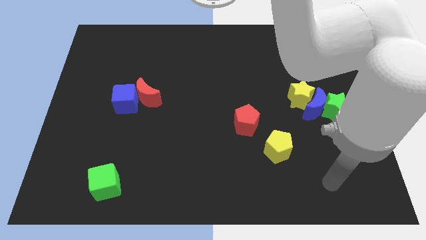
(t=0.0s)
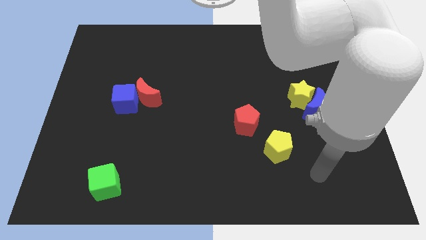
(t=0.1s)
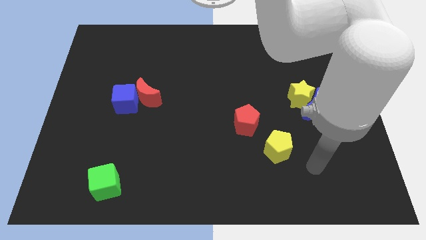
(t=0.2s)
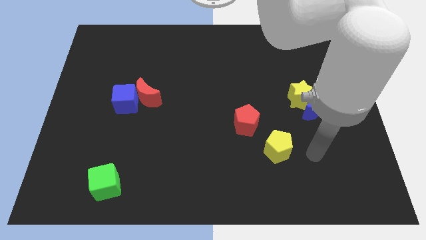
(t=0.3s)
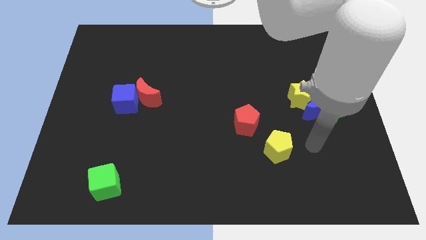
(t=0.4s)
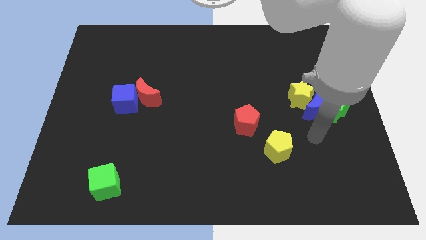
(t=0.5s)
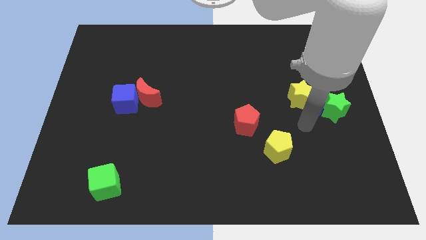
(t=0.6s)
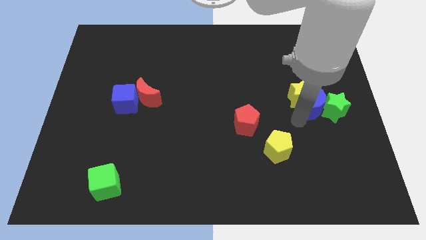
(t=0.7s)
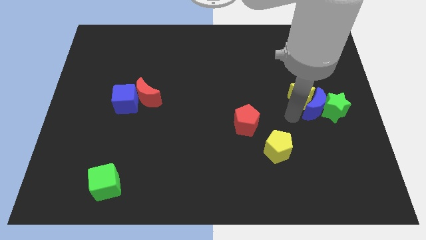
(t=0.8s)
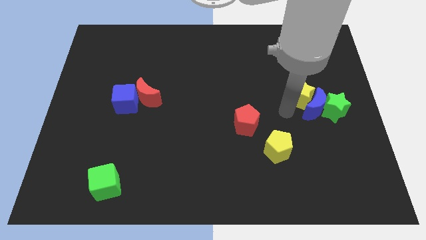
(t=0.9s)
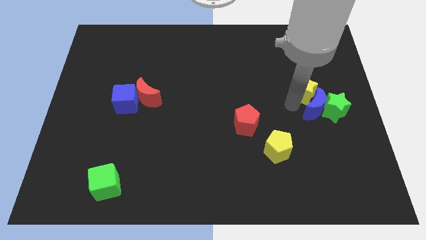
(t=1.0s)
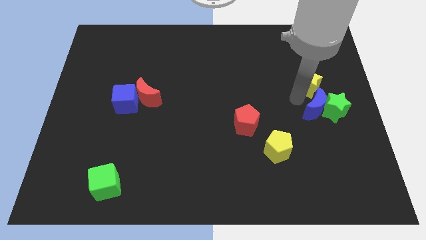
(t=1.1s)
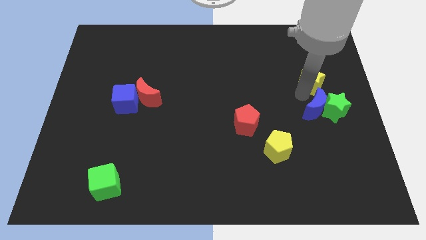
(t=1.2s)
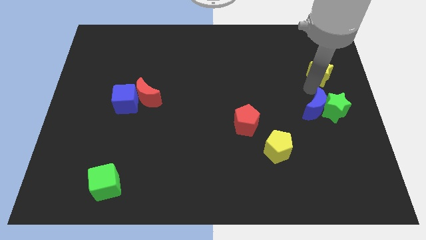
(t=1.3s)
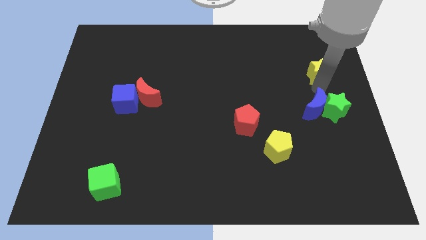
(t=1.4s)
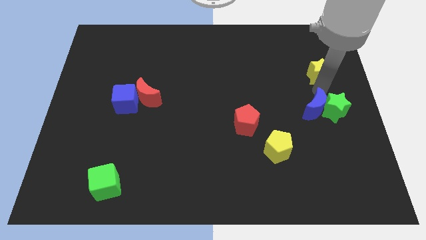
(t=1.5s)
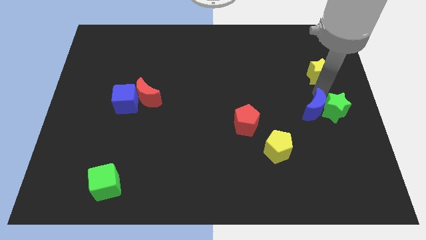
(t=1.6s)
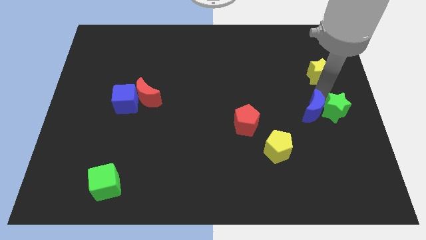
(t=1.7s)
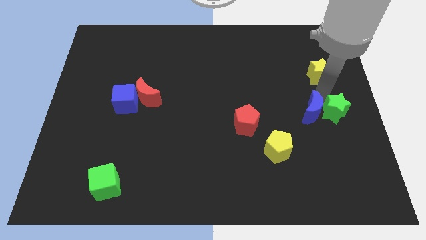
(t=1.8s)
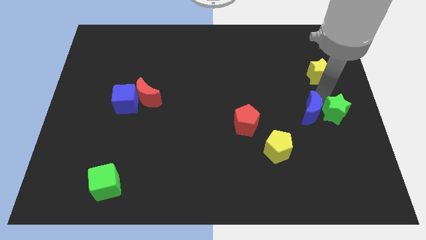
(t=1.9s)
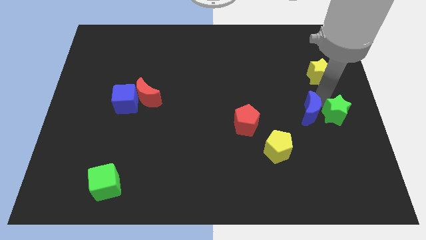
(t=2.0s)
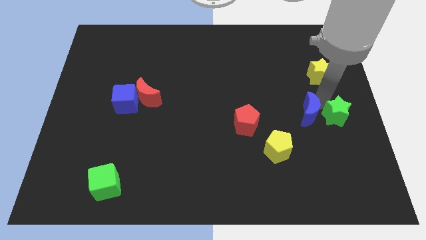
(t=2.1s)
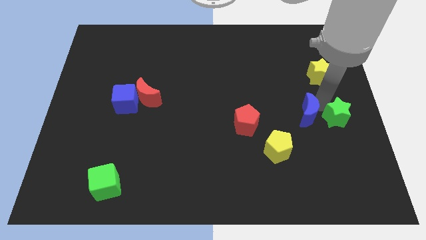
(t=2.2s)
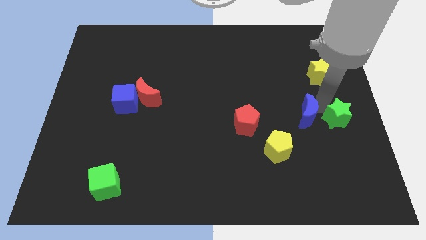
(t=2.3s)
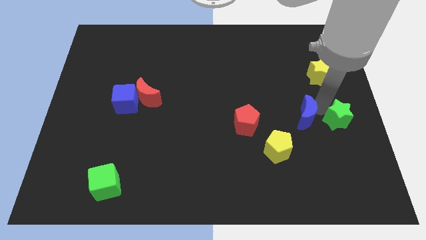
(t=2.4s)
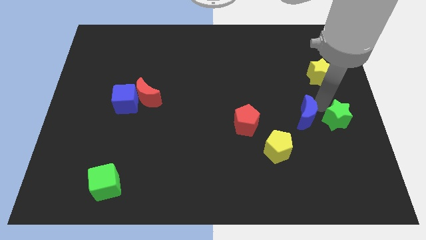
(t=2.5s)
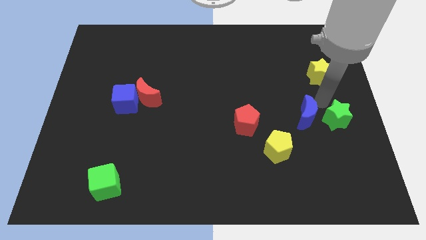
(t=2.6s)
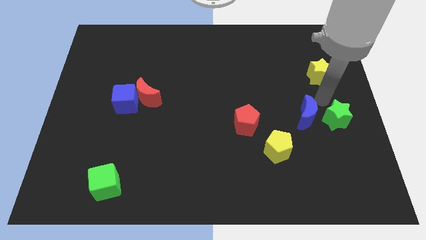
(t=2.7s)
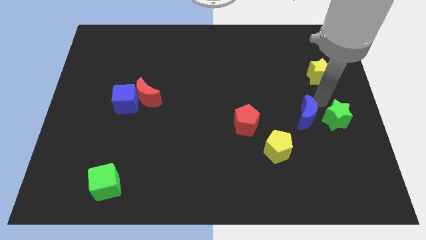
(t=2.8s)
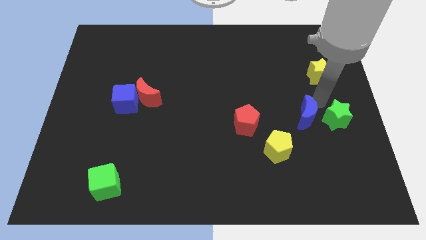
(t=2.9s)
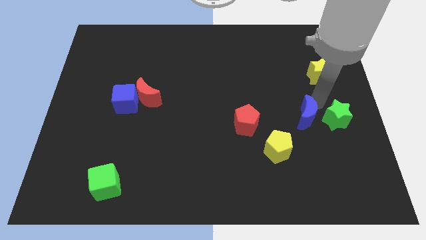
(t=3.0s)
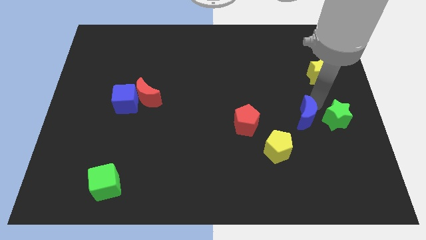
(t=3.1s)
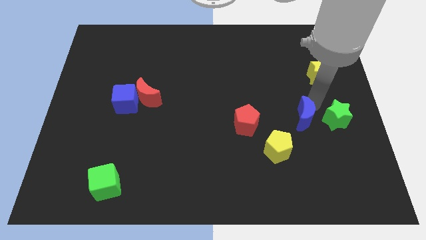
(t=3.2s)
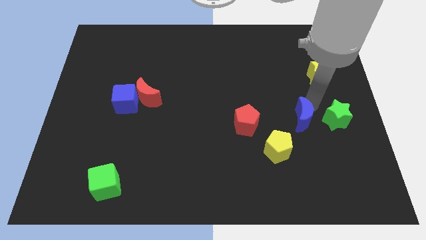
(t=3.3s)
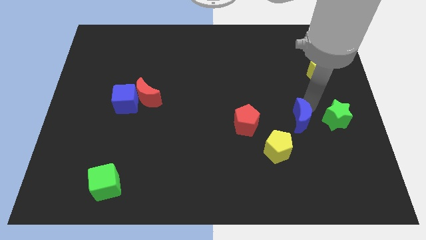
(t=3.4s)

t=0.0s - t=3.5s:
pull the blue moon apart from the yellow star and green star

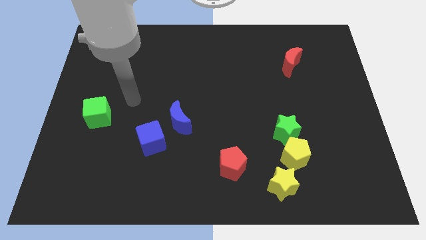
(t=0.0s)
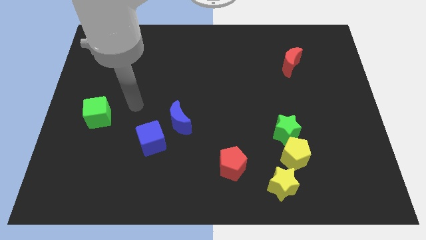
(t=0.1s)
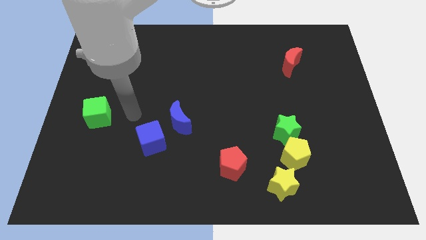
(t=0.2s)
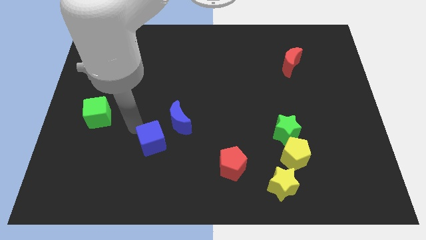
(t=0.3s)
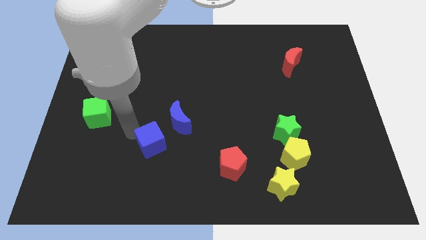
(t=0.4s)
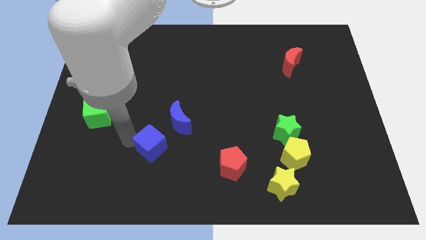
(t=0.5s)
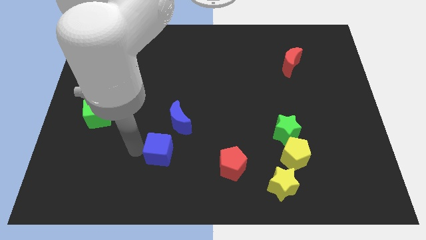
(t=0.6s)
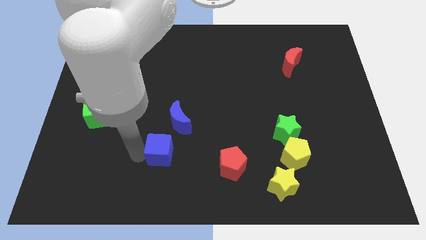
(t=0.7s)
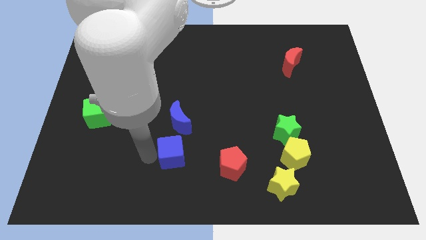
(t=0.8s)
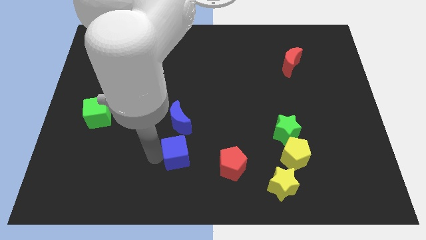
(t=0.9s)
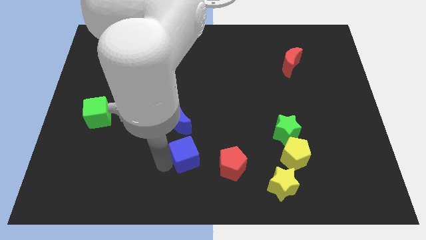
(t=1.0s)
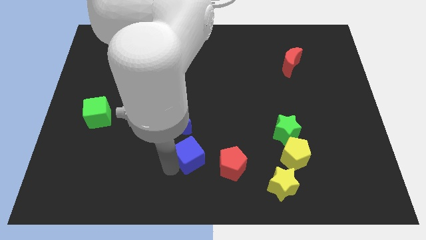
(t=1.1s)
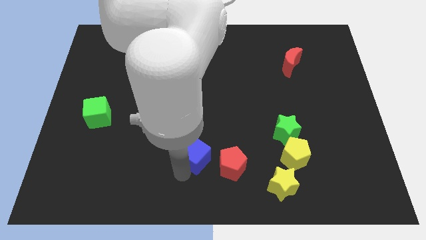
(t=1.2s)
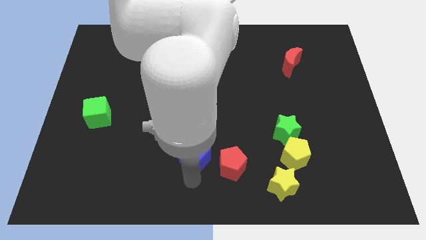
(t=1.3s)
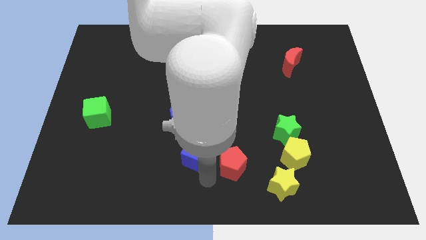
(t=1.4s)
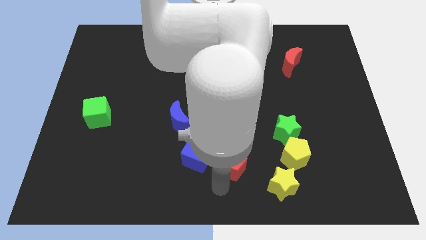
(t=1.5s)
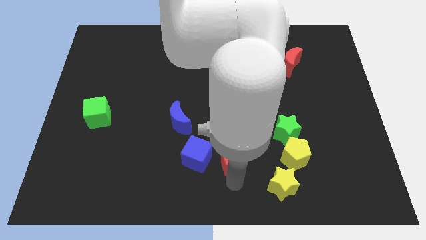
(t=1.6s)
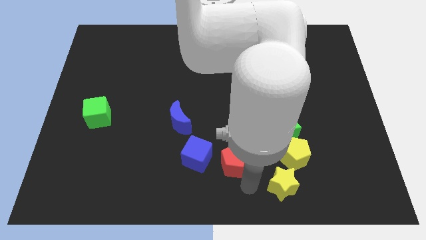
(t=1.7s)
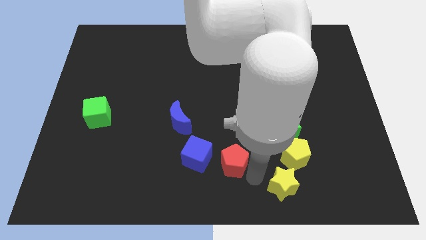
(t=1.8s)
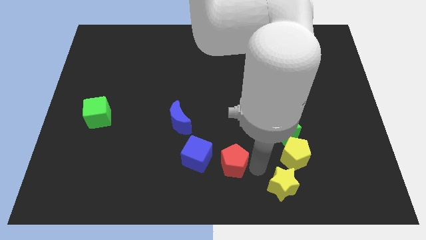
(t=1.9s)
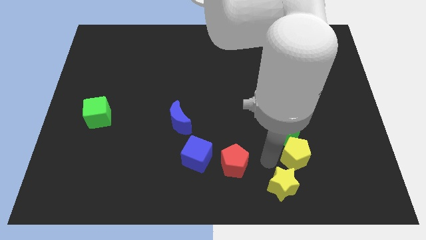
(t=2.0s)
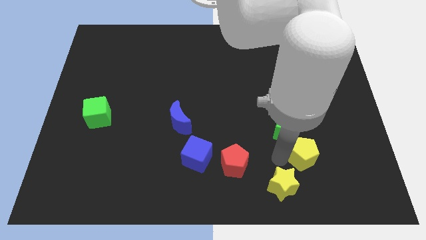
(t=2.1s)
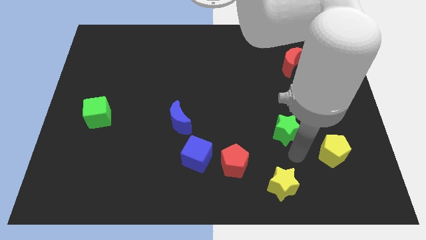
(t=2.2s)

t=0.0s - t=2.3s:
pull the green star apart from the yellow pentagon

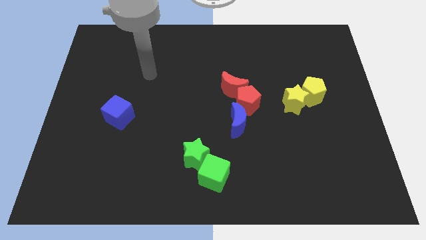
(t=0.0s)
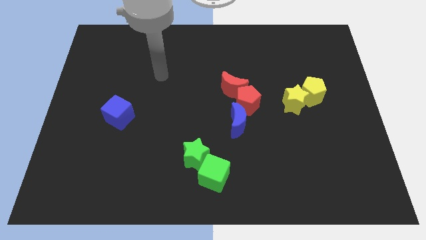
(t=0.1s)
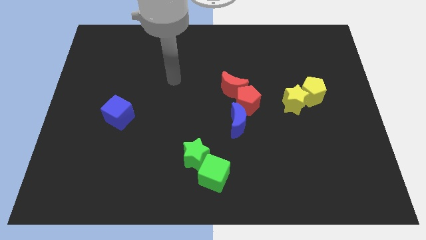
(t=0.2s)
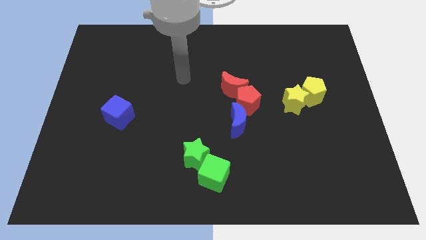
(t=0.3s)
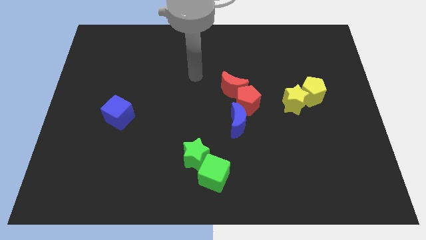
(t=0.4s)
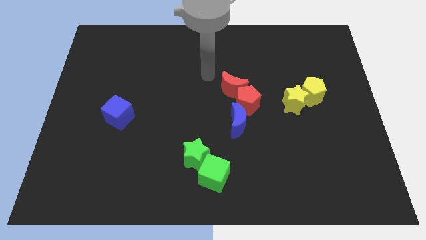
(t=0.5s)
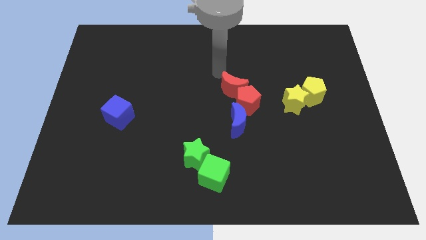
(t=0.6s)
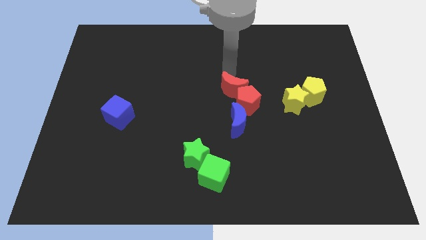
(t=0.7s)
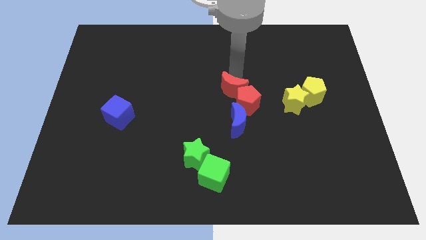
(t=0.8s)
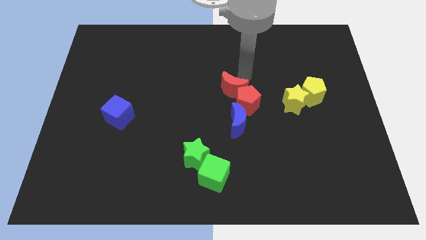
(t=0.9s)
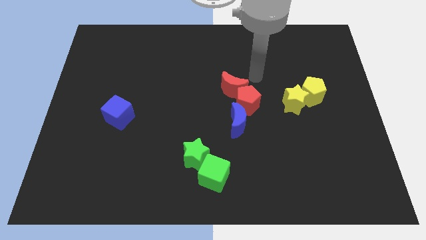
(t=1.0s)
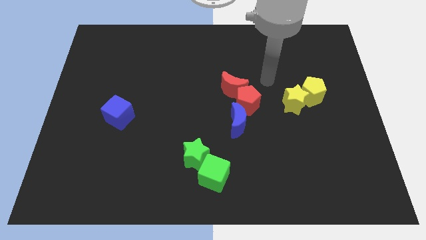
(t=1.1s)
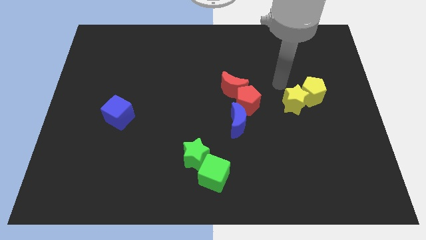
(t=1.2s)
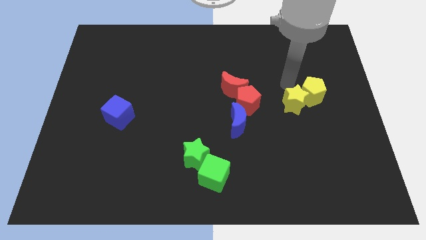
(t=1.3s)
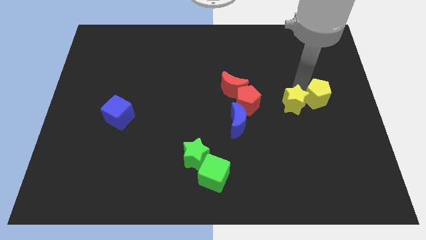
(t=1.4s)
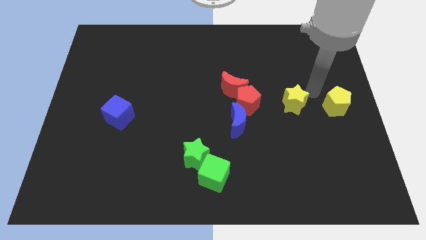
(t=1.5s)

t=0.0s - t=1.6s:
pull the yellow star apart from the yellow pentagon

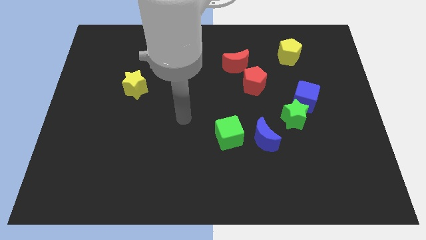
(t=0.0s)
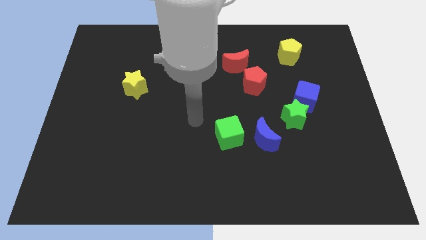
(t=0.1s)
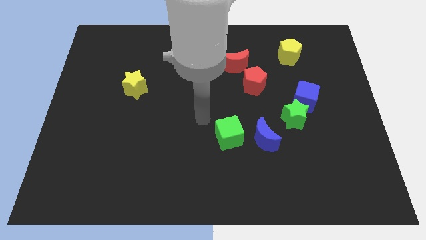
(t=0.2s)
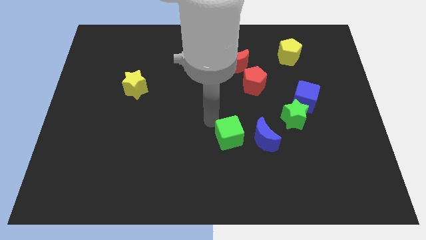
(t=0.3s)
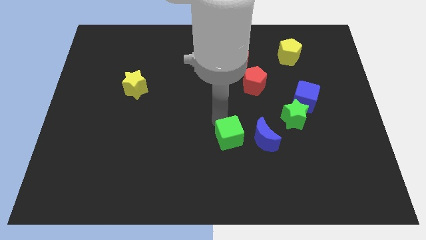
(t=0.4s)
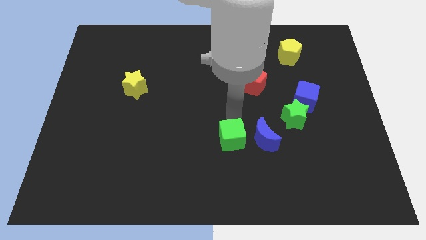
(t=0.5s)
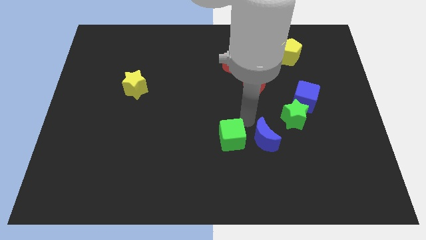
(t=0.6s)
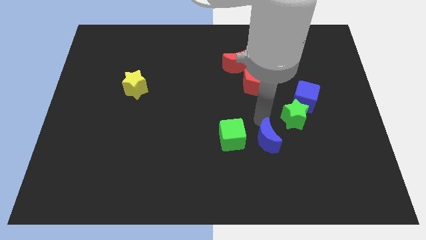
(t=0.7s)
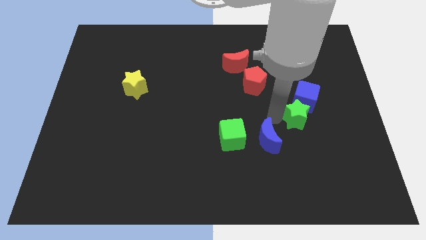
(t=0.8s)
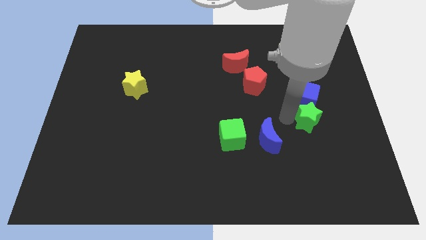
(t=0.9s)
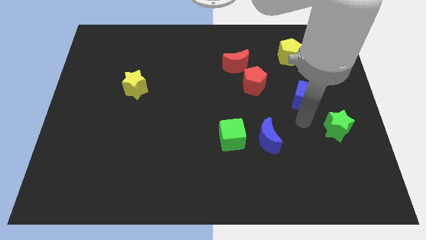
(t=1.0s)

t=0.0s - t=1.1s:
pull the blue cube apart from the green star

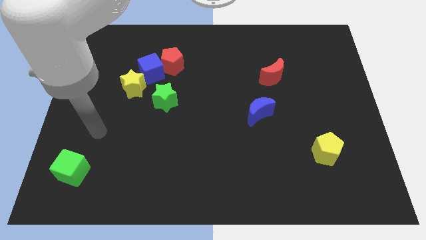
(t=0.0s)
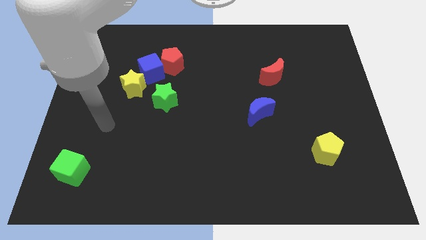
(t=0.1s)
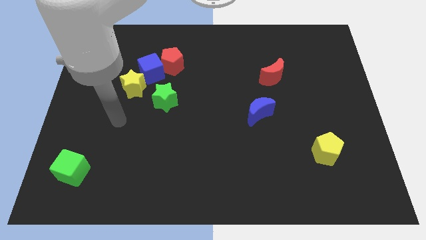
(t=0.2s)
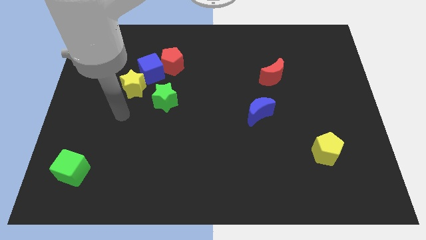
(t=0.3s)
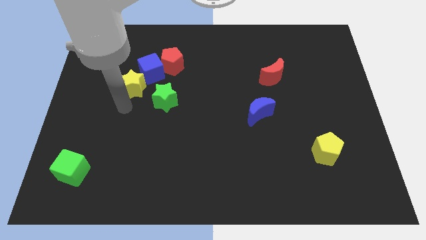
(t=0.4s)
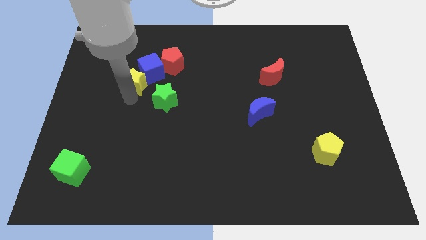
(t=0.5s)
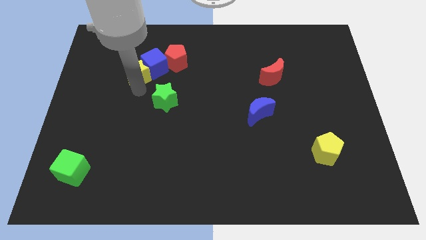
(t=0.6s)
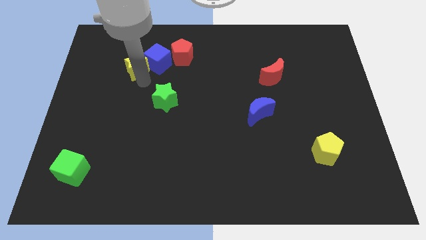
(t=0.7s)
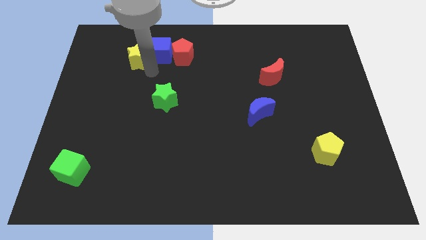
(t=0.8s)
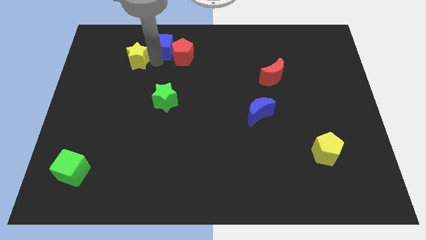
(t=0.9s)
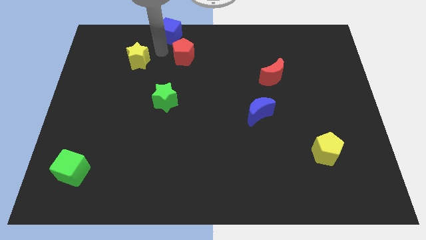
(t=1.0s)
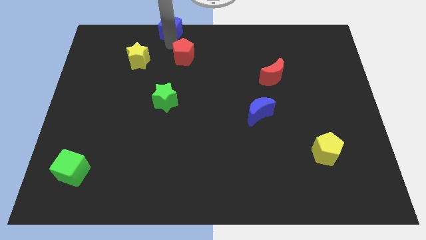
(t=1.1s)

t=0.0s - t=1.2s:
pull the red pentagon apart from the blue cube
